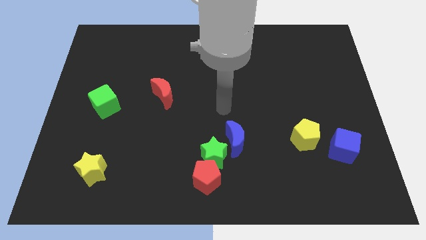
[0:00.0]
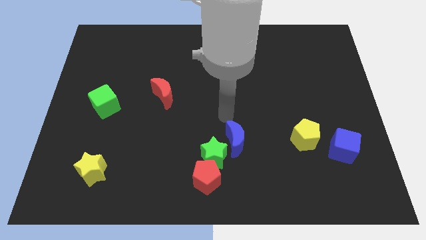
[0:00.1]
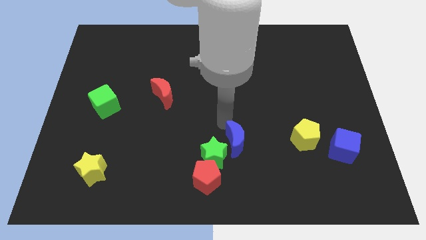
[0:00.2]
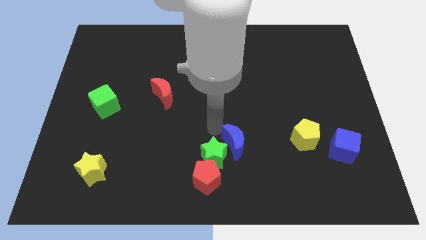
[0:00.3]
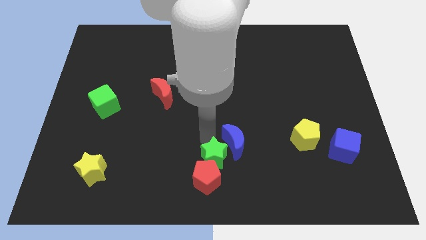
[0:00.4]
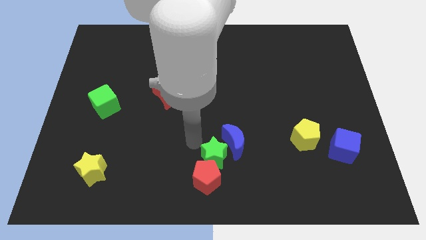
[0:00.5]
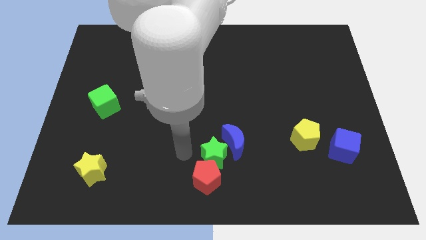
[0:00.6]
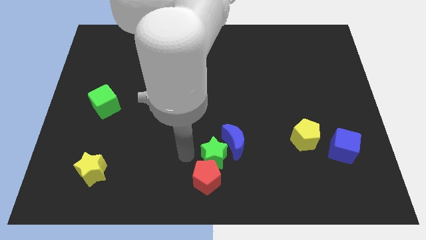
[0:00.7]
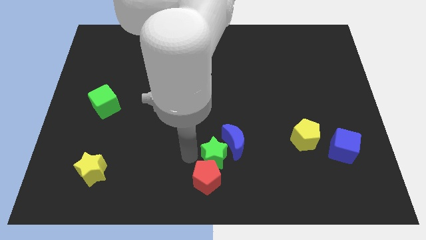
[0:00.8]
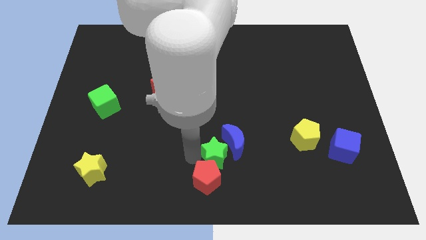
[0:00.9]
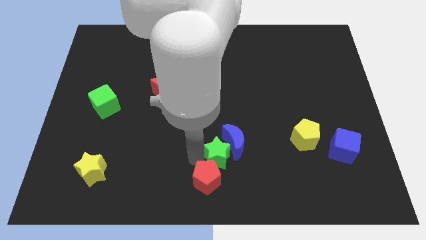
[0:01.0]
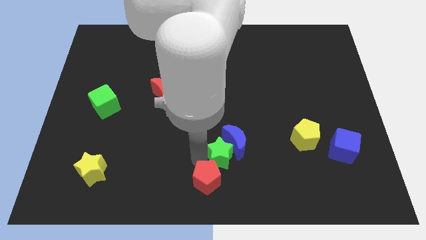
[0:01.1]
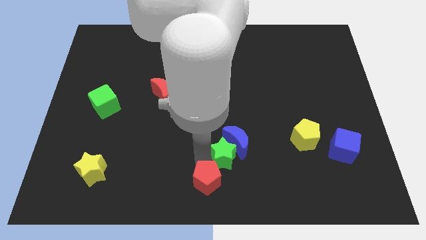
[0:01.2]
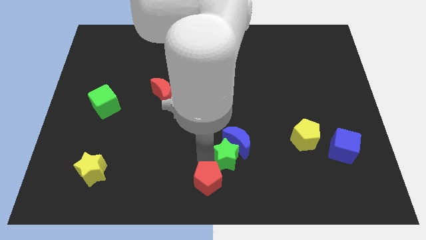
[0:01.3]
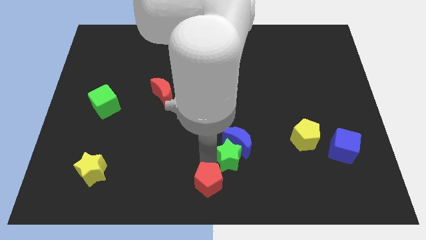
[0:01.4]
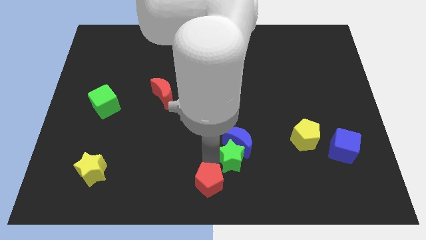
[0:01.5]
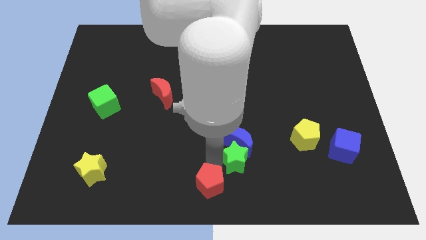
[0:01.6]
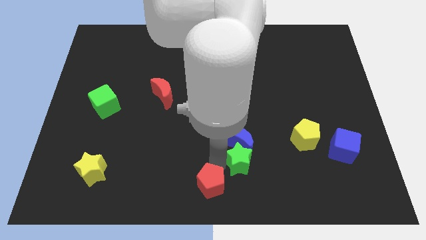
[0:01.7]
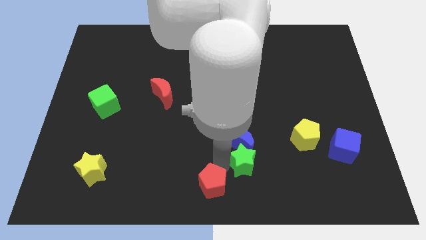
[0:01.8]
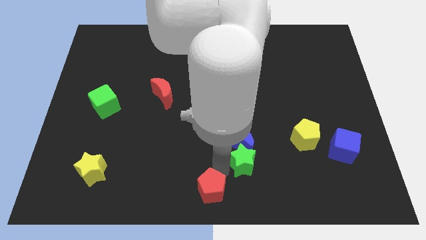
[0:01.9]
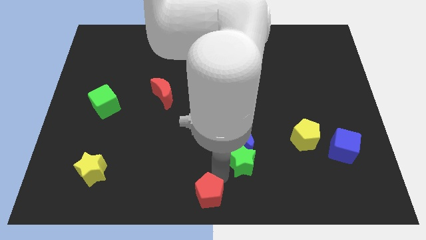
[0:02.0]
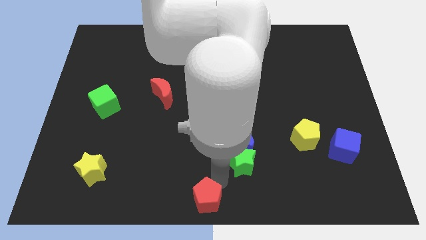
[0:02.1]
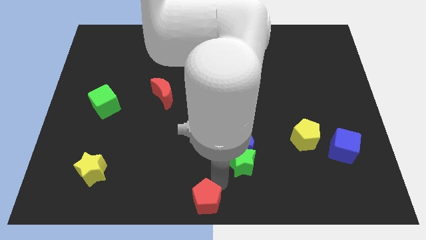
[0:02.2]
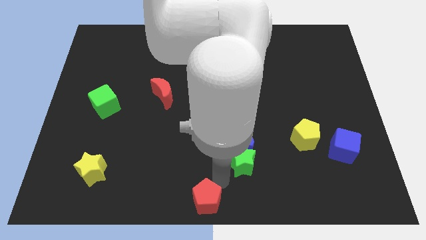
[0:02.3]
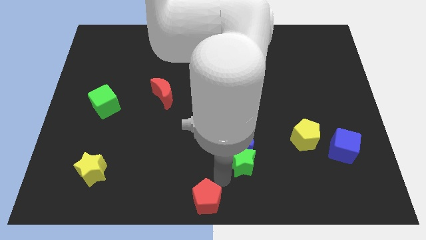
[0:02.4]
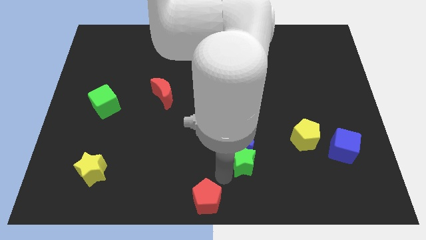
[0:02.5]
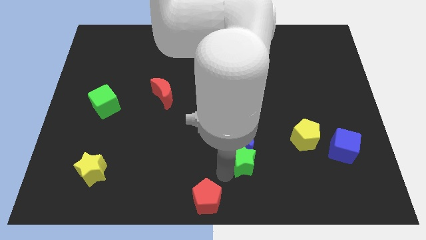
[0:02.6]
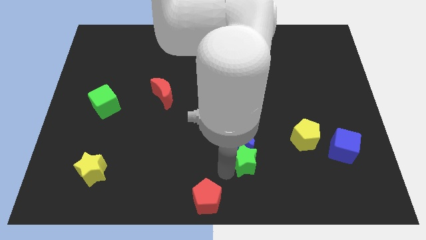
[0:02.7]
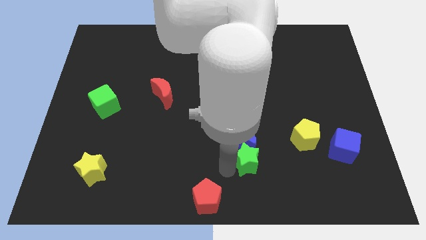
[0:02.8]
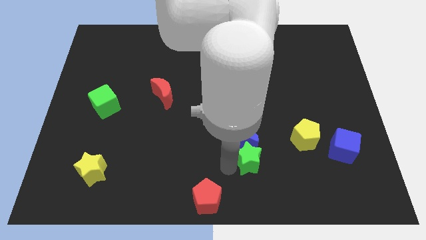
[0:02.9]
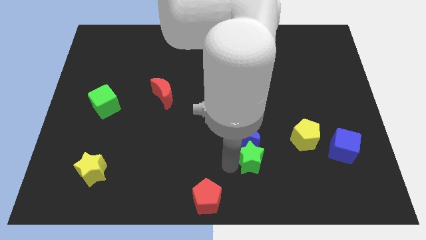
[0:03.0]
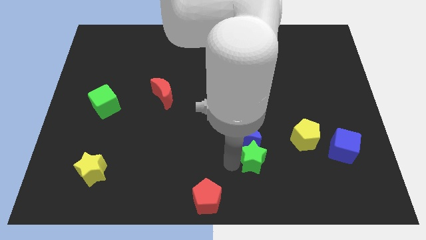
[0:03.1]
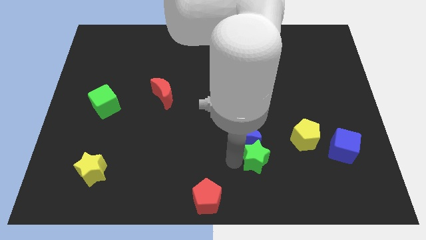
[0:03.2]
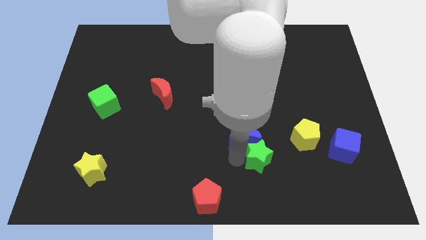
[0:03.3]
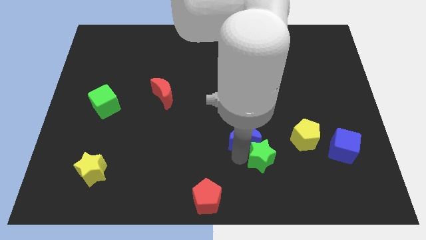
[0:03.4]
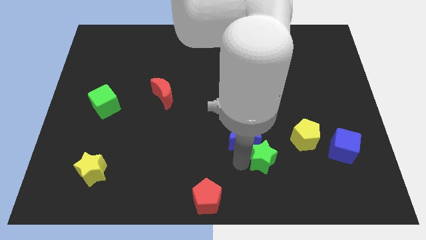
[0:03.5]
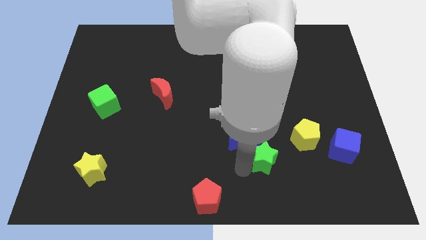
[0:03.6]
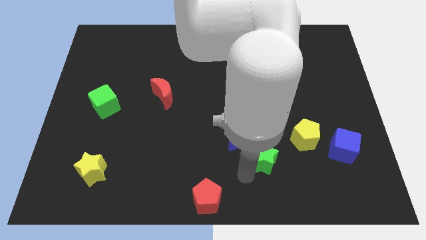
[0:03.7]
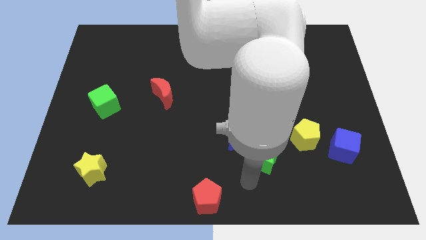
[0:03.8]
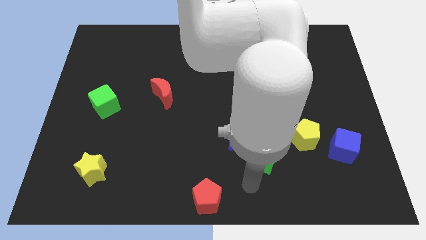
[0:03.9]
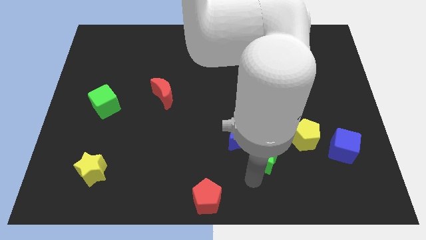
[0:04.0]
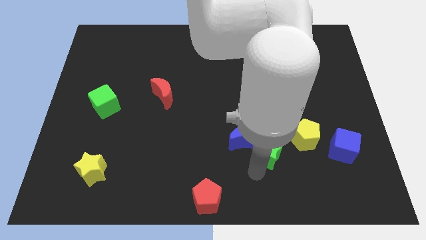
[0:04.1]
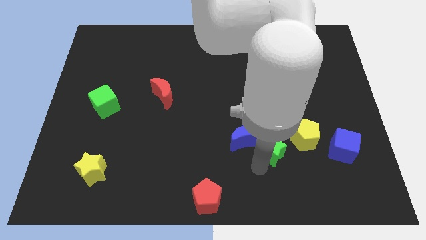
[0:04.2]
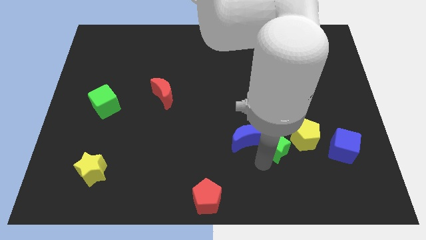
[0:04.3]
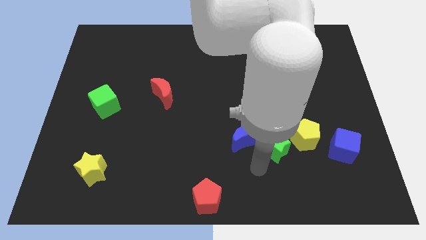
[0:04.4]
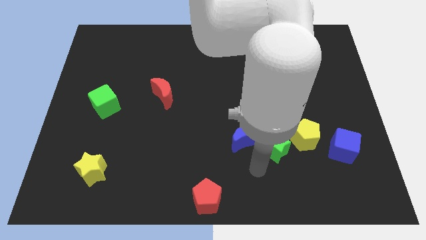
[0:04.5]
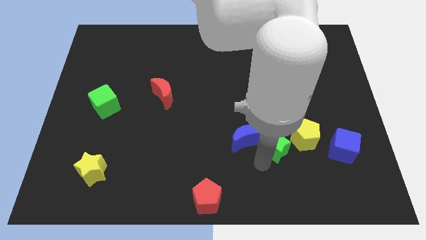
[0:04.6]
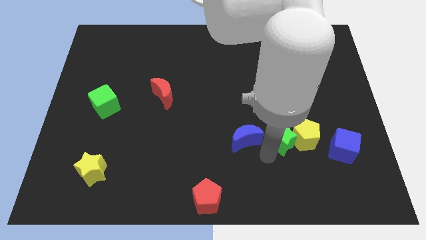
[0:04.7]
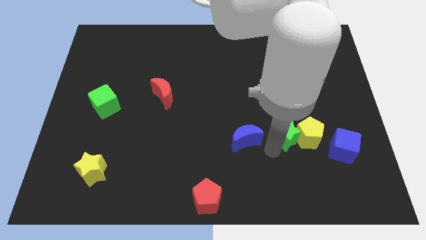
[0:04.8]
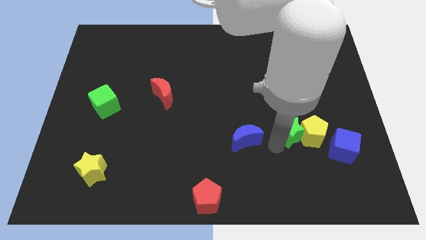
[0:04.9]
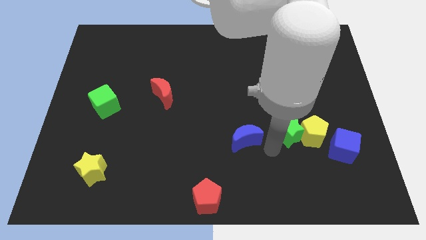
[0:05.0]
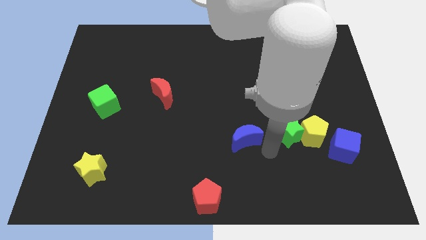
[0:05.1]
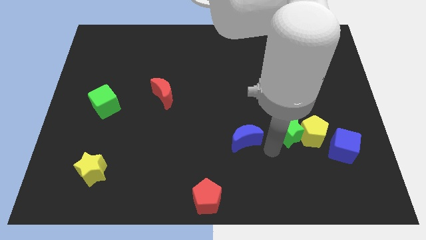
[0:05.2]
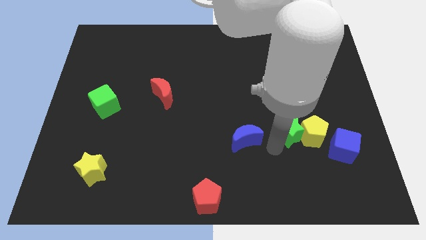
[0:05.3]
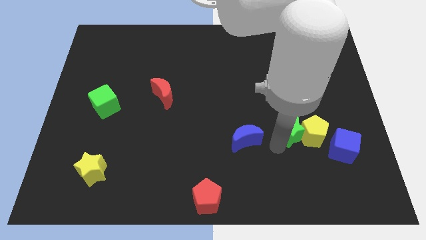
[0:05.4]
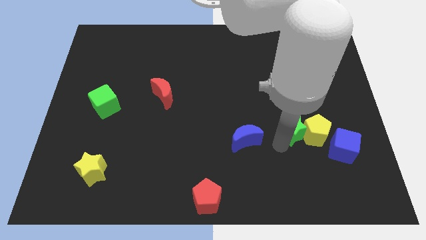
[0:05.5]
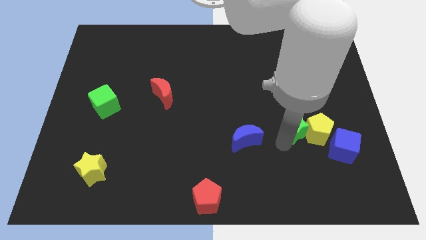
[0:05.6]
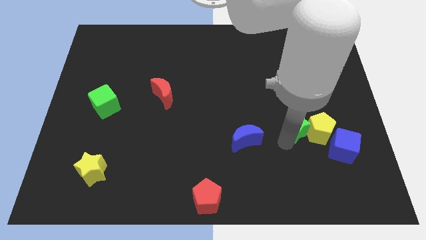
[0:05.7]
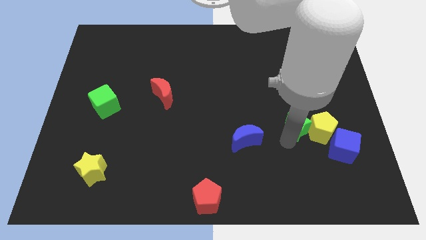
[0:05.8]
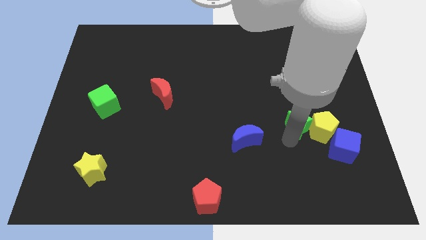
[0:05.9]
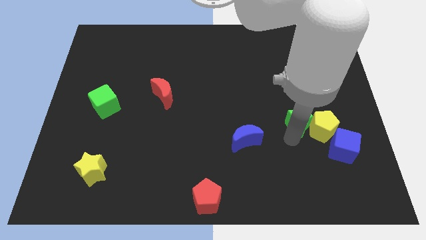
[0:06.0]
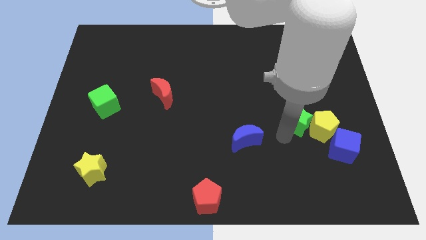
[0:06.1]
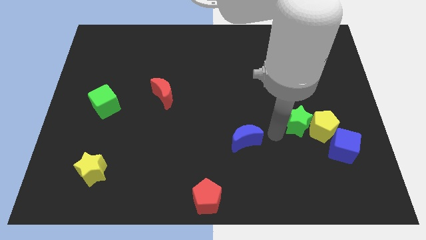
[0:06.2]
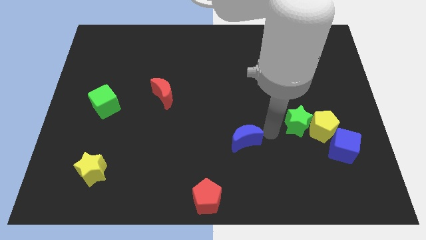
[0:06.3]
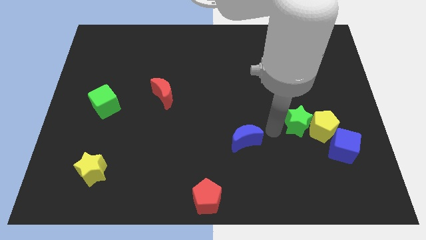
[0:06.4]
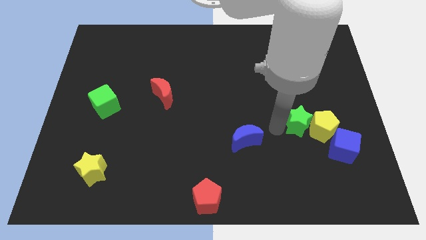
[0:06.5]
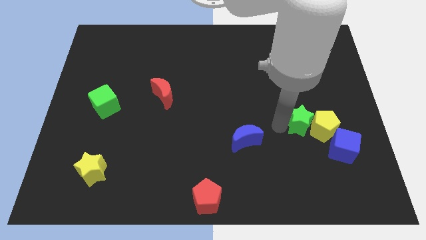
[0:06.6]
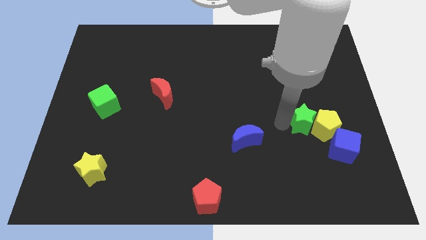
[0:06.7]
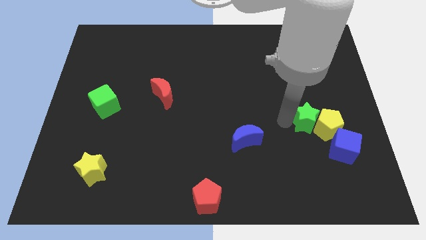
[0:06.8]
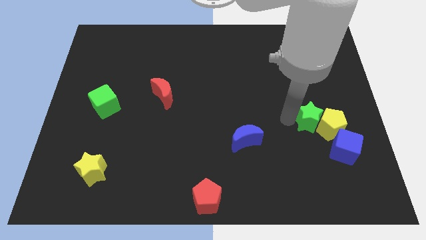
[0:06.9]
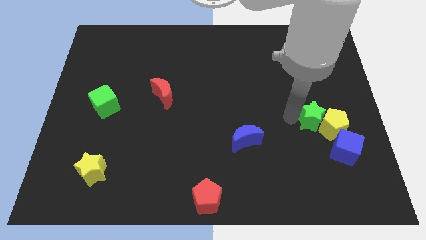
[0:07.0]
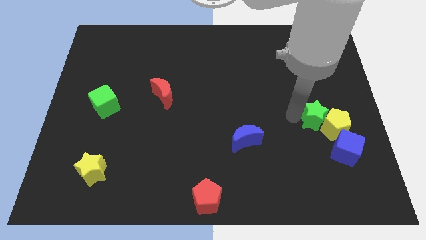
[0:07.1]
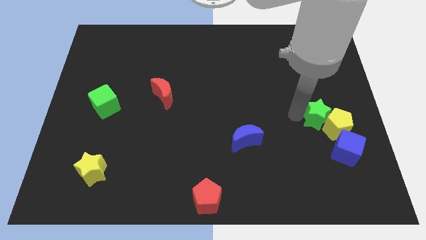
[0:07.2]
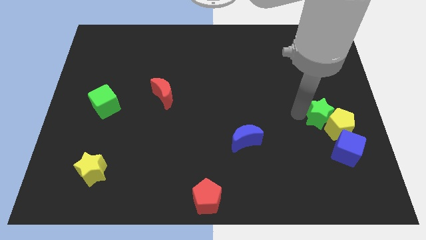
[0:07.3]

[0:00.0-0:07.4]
put the green star above the blue cube

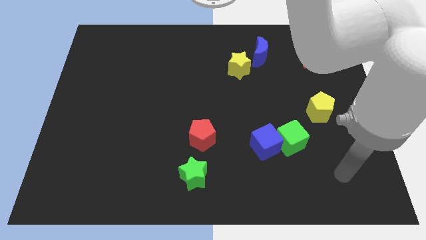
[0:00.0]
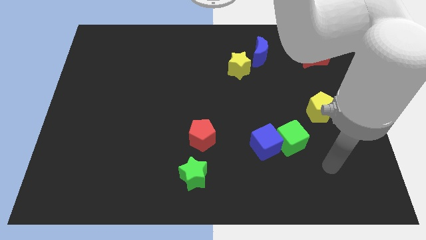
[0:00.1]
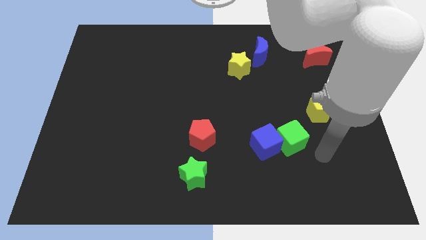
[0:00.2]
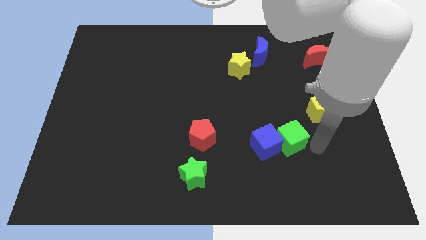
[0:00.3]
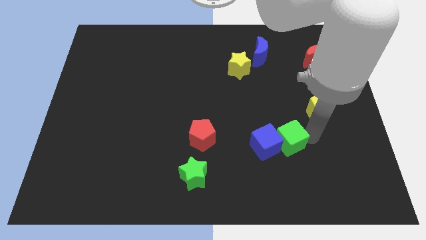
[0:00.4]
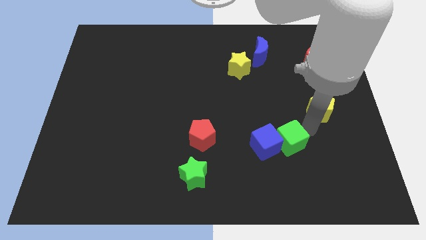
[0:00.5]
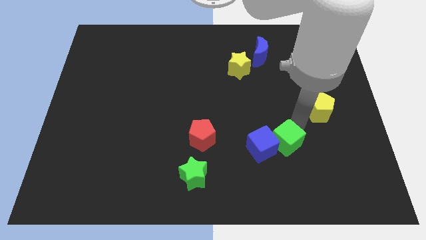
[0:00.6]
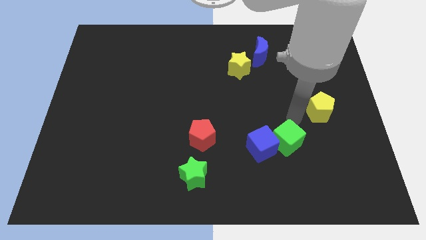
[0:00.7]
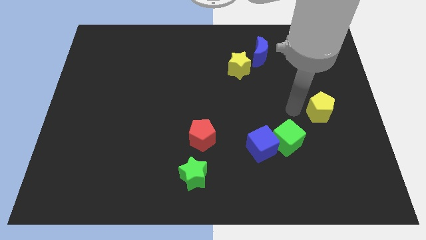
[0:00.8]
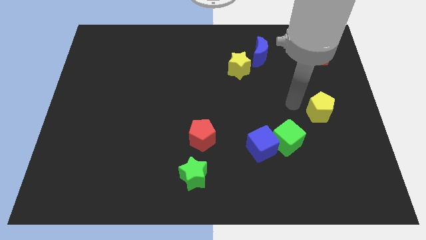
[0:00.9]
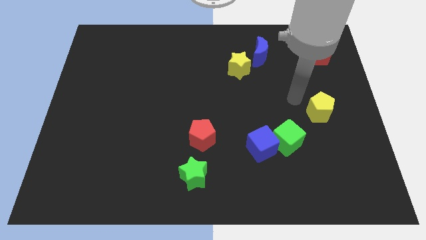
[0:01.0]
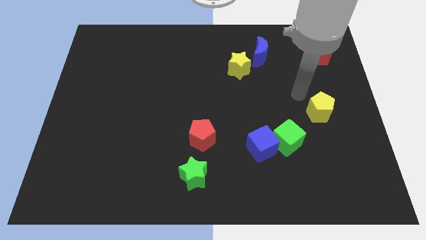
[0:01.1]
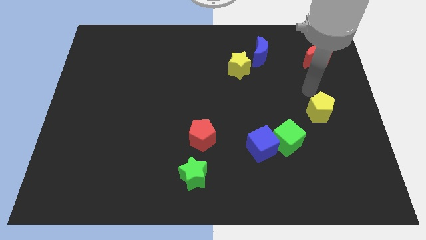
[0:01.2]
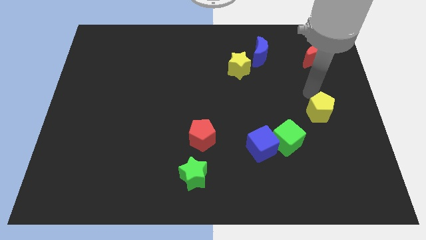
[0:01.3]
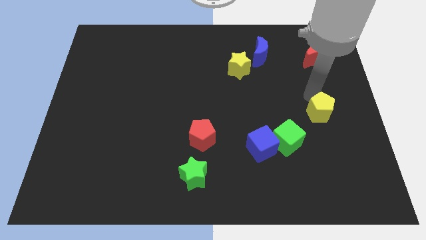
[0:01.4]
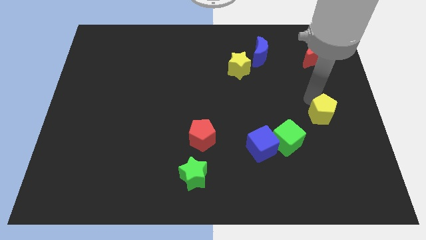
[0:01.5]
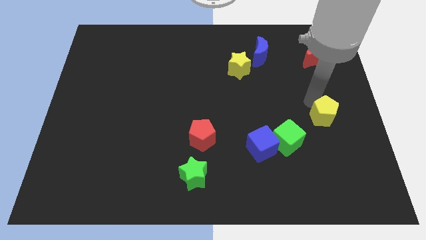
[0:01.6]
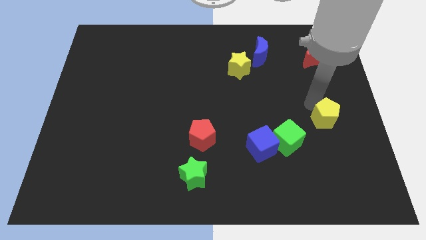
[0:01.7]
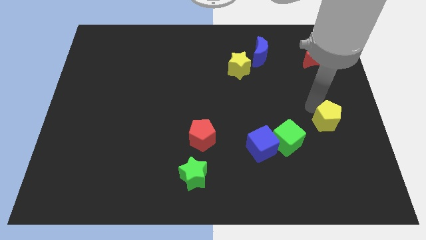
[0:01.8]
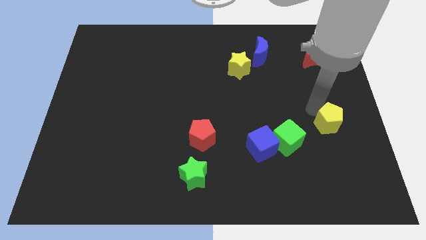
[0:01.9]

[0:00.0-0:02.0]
move the yellow pentagon to the right side of the green cube
